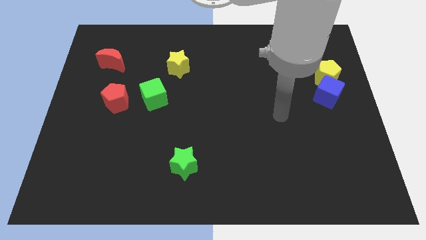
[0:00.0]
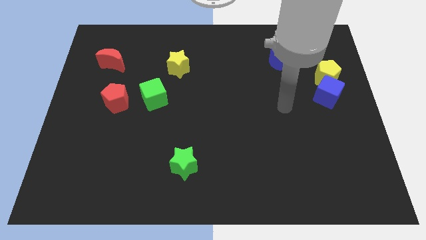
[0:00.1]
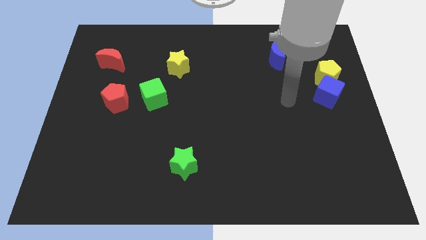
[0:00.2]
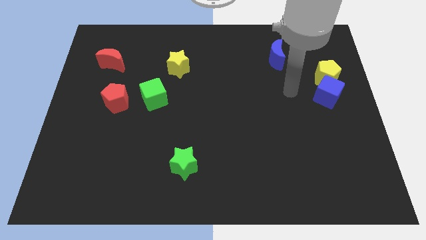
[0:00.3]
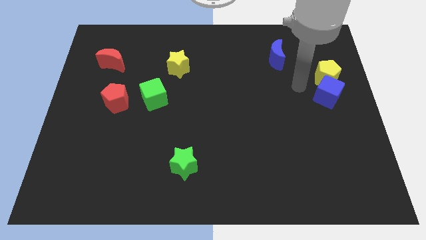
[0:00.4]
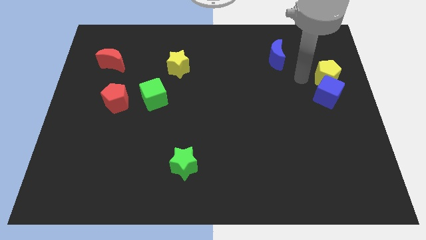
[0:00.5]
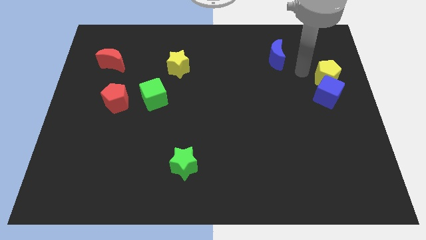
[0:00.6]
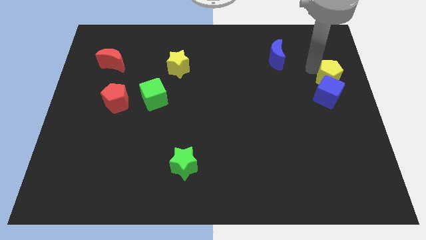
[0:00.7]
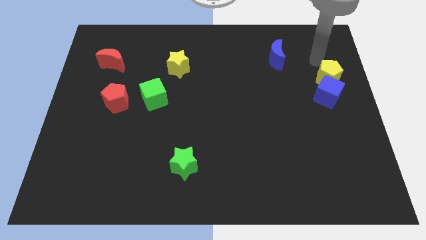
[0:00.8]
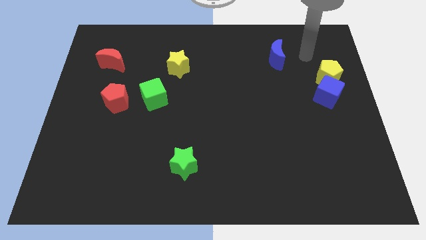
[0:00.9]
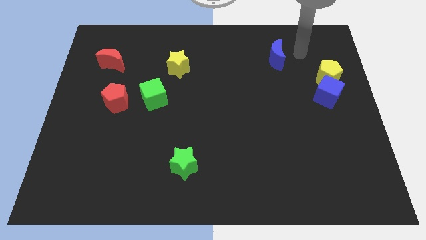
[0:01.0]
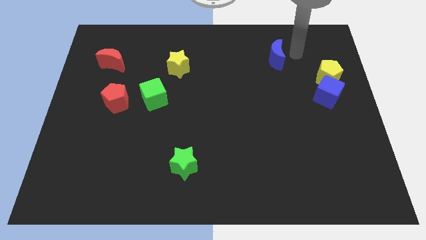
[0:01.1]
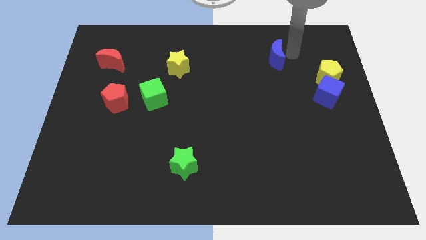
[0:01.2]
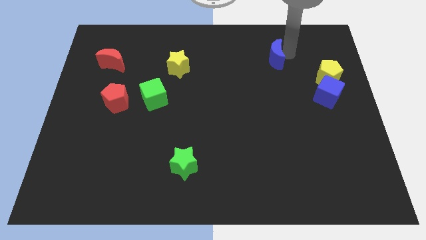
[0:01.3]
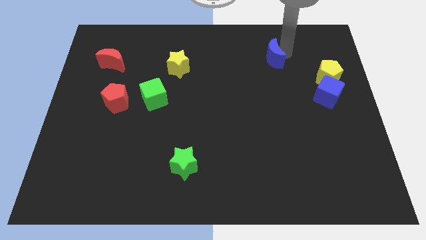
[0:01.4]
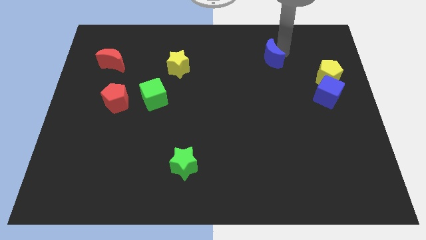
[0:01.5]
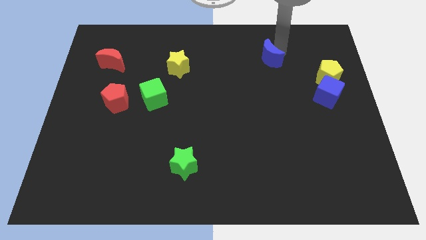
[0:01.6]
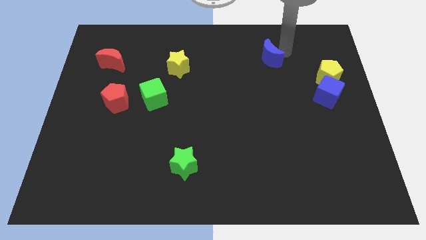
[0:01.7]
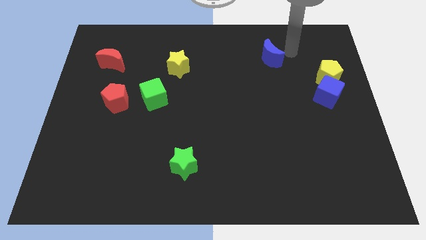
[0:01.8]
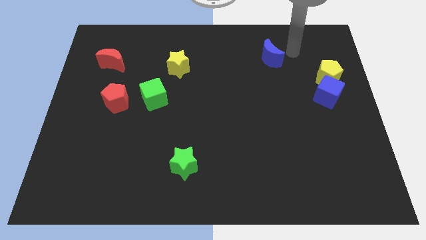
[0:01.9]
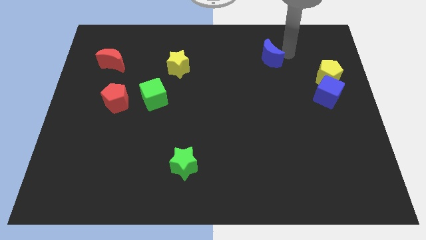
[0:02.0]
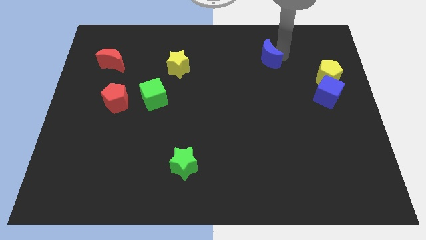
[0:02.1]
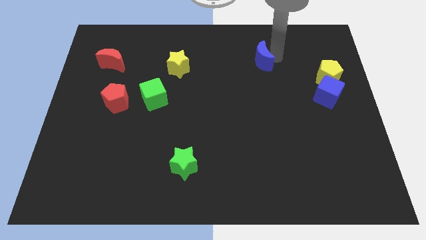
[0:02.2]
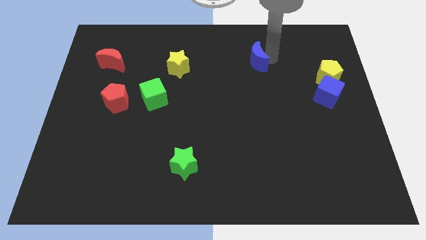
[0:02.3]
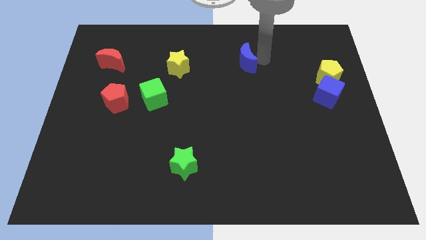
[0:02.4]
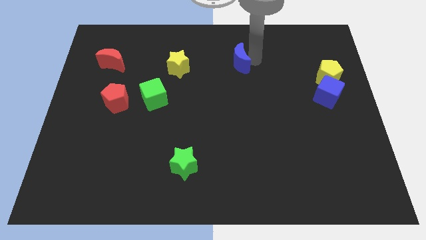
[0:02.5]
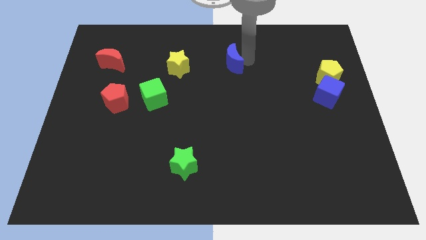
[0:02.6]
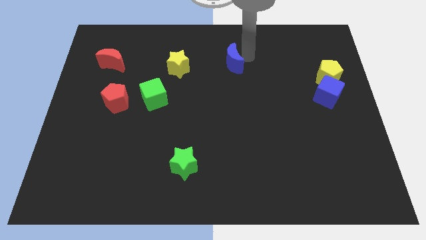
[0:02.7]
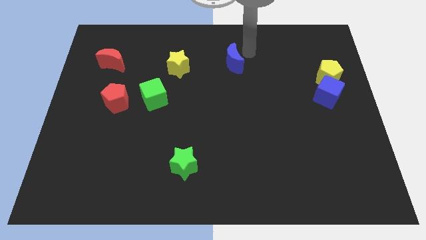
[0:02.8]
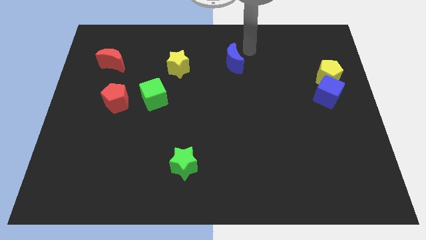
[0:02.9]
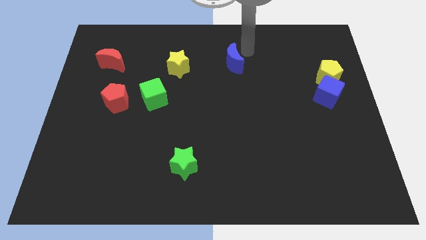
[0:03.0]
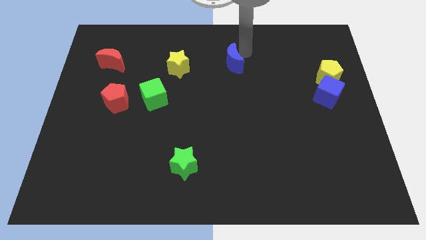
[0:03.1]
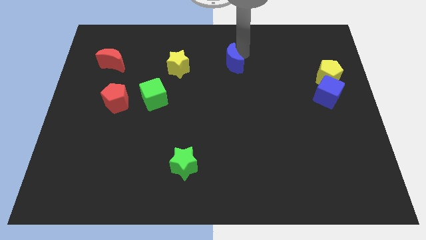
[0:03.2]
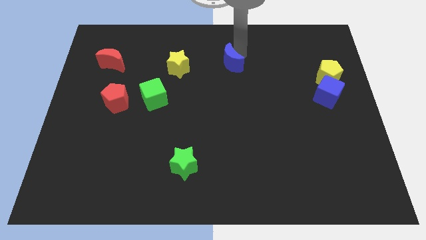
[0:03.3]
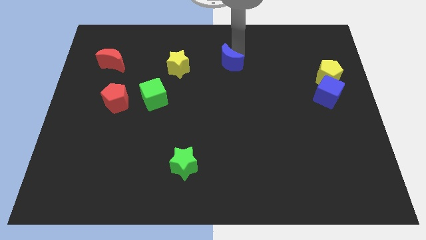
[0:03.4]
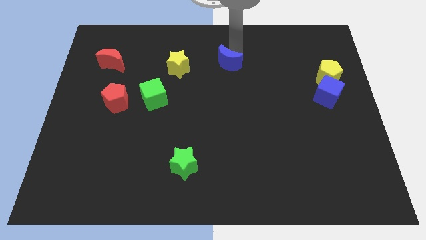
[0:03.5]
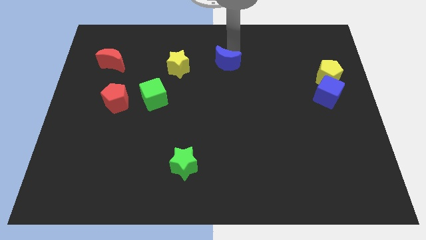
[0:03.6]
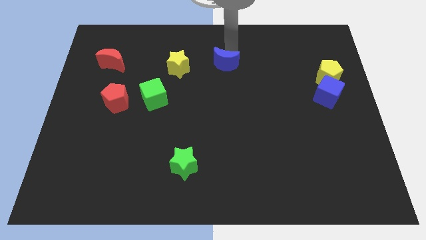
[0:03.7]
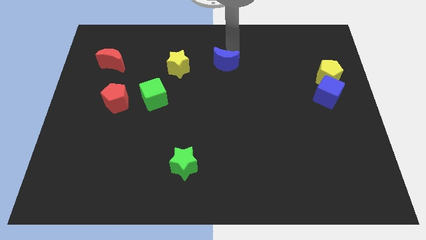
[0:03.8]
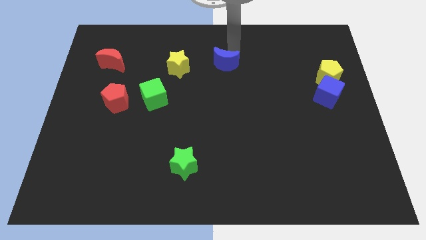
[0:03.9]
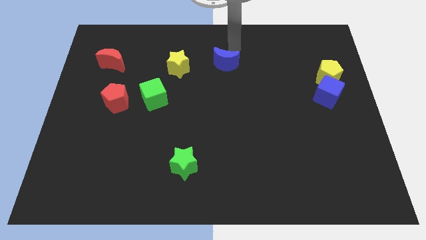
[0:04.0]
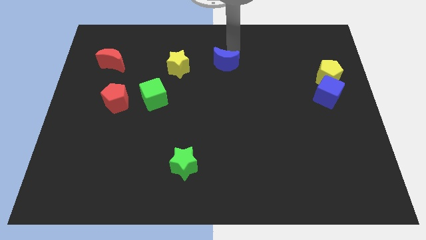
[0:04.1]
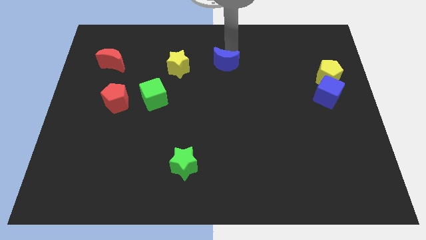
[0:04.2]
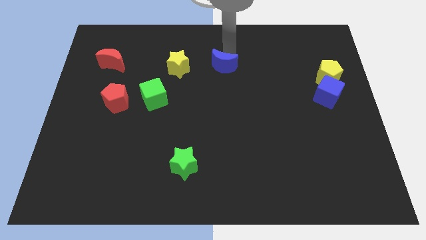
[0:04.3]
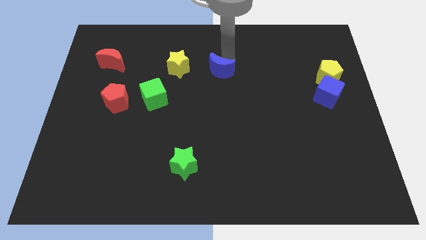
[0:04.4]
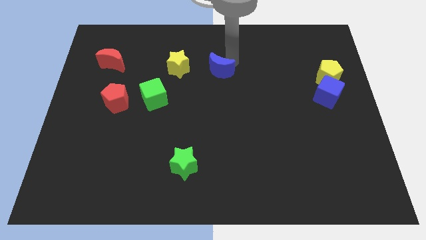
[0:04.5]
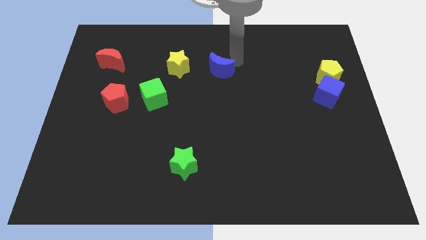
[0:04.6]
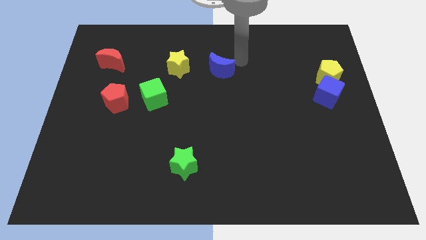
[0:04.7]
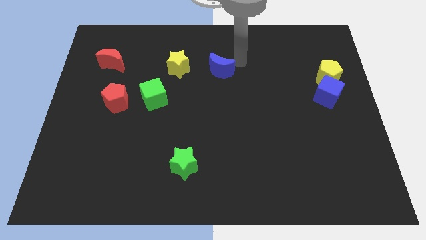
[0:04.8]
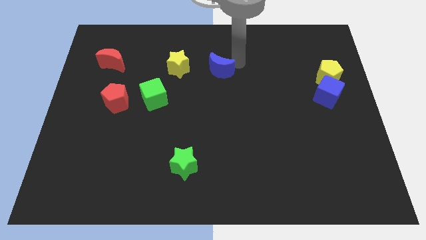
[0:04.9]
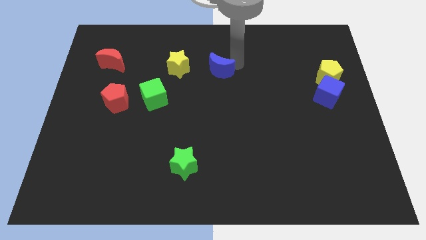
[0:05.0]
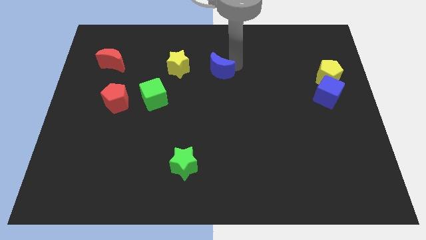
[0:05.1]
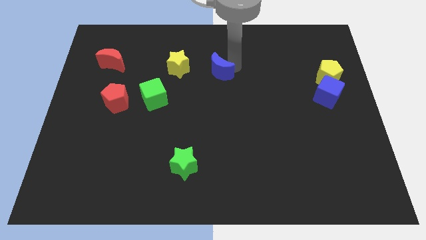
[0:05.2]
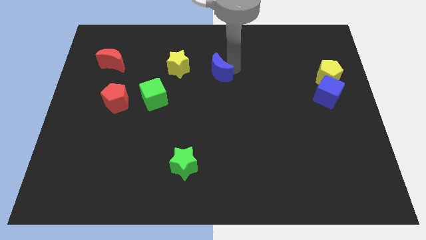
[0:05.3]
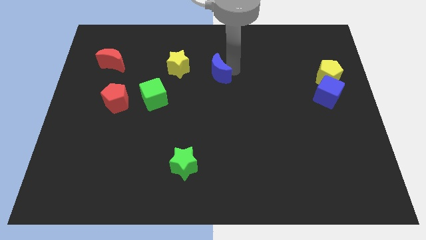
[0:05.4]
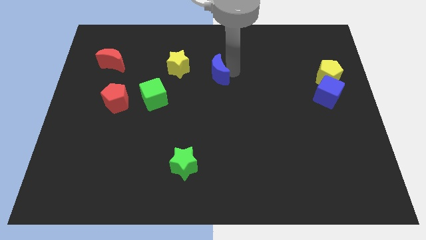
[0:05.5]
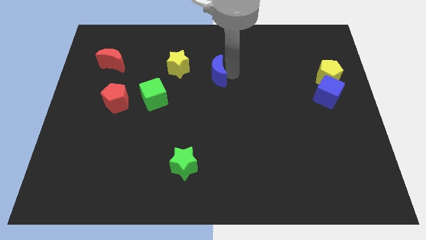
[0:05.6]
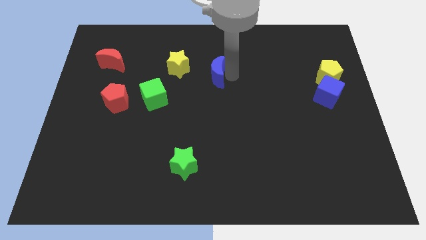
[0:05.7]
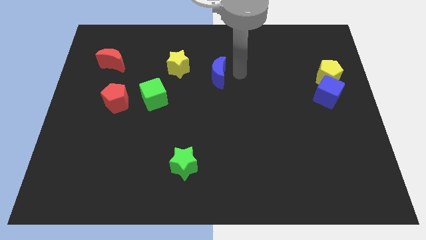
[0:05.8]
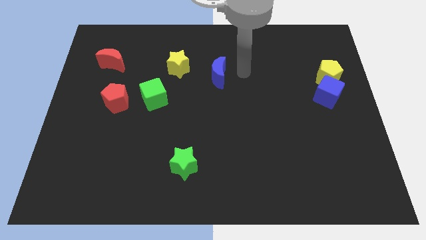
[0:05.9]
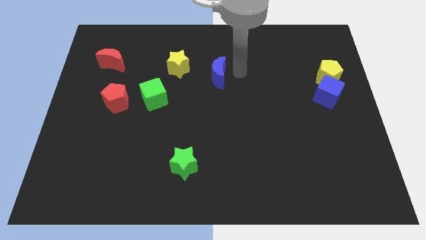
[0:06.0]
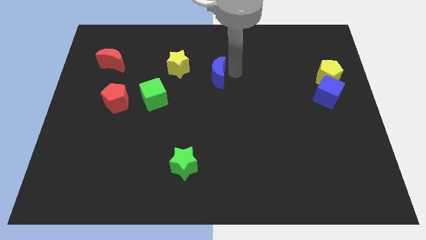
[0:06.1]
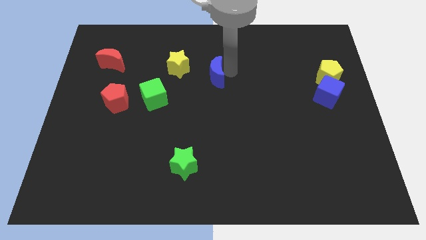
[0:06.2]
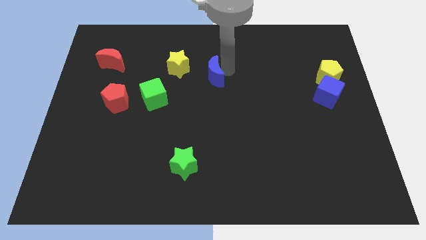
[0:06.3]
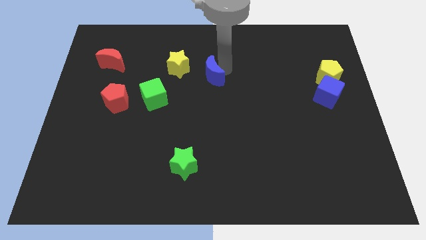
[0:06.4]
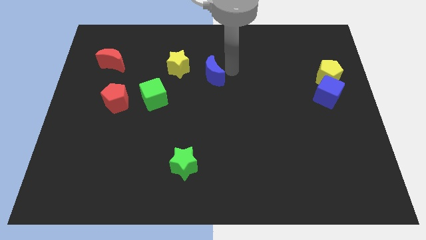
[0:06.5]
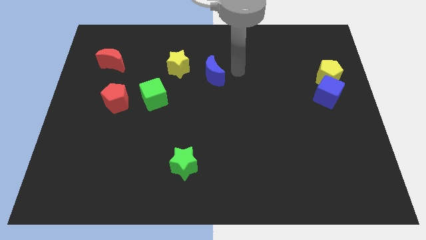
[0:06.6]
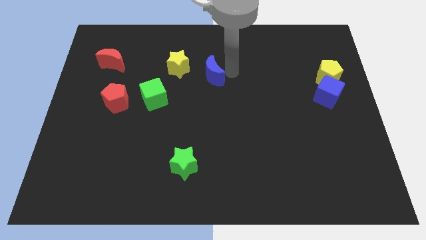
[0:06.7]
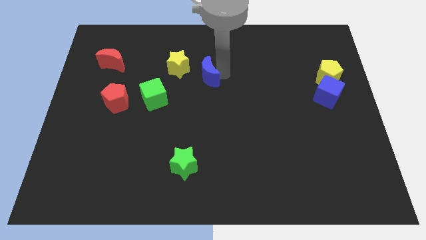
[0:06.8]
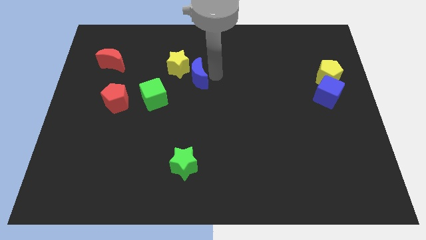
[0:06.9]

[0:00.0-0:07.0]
slide the blue moon to the top right side of the green cube

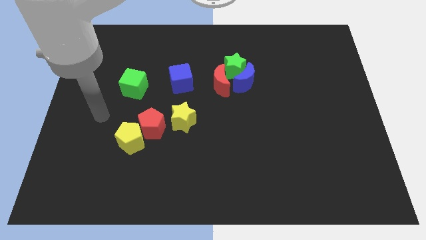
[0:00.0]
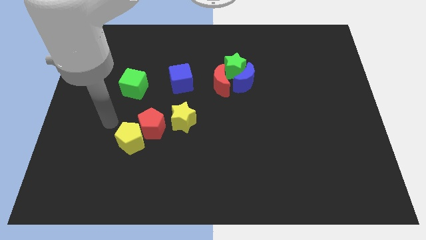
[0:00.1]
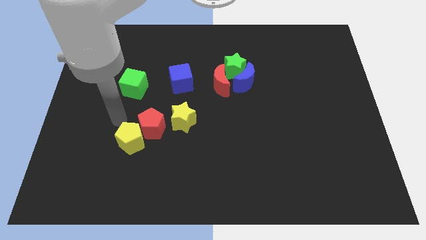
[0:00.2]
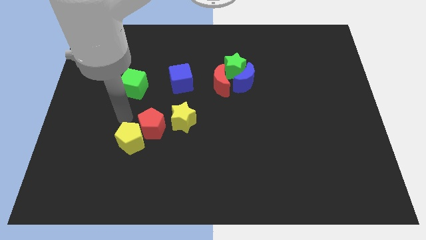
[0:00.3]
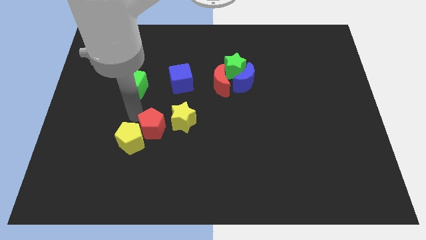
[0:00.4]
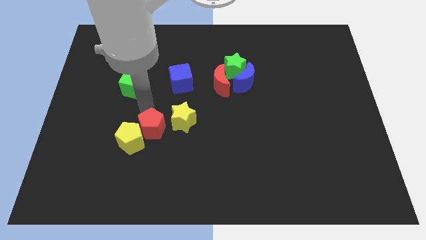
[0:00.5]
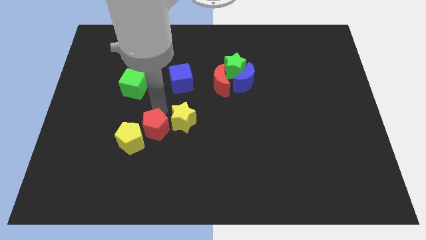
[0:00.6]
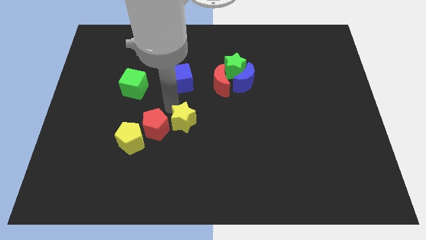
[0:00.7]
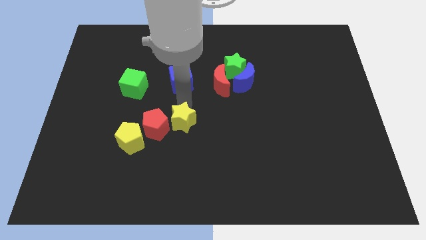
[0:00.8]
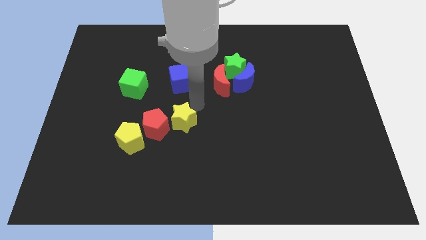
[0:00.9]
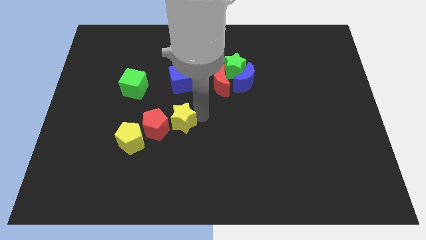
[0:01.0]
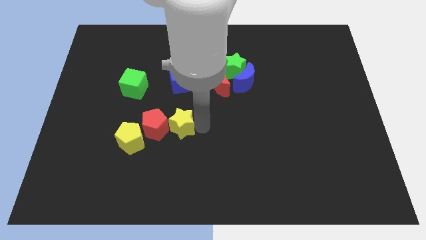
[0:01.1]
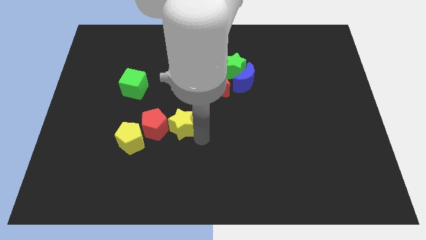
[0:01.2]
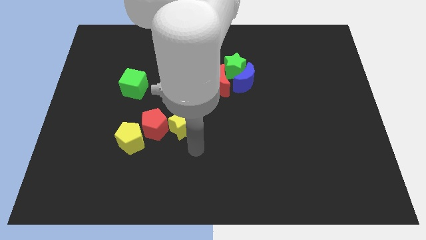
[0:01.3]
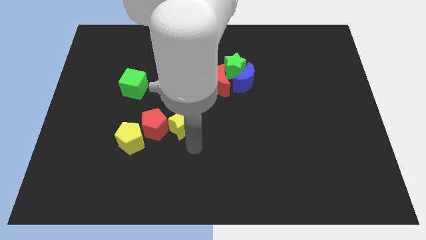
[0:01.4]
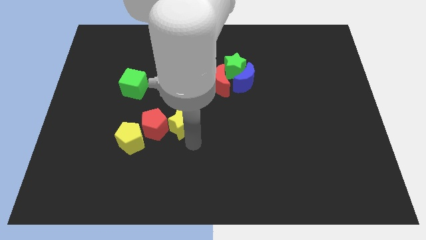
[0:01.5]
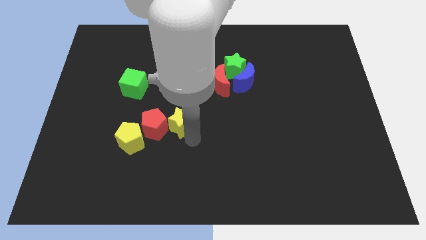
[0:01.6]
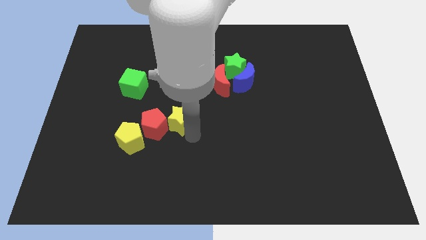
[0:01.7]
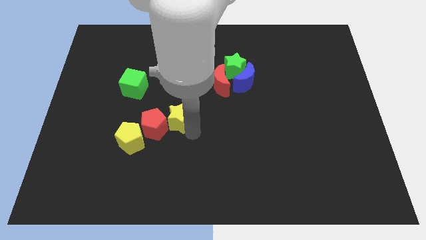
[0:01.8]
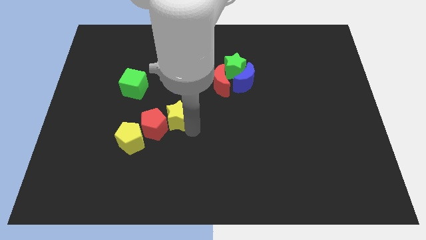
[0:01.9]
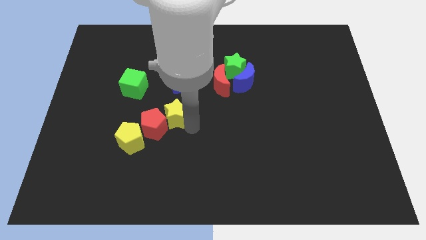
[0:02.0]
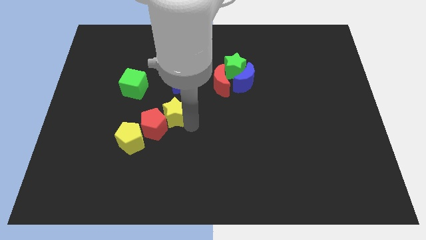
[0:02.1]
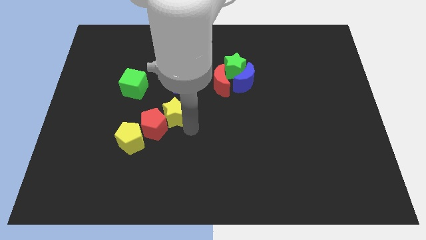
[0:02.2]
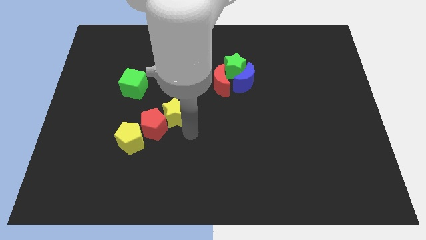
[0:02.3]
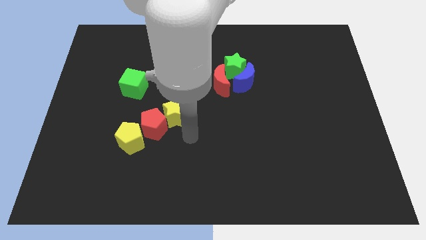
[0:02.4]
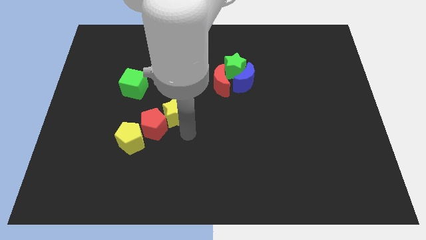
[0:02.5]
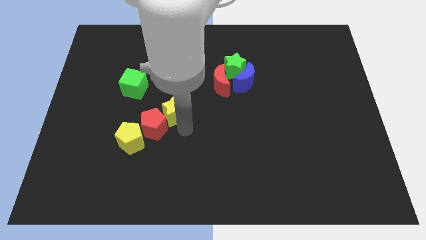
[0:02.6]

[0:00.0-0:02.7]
slide the yellow star above the red pentagon
